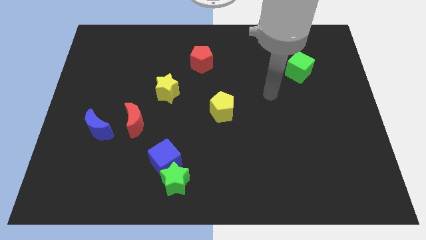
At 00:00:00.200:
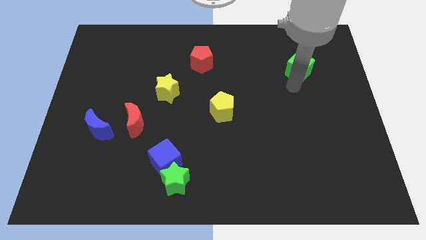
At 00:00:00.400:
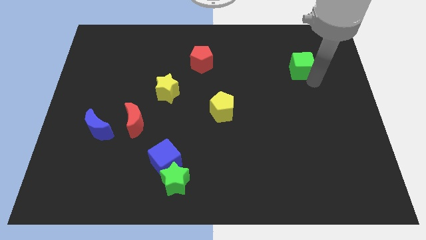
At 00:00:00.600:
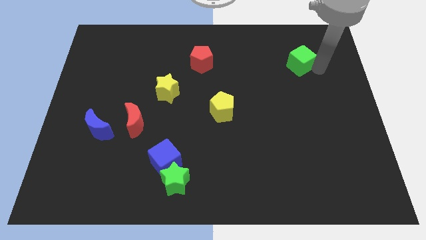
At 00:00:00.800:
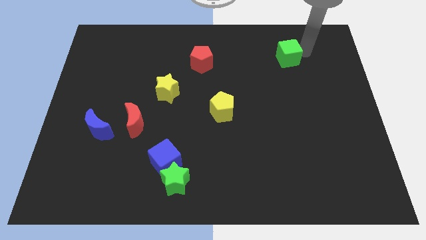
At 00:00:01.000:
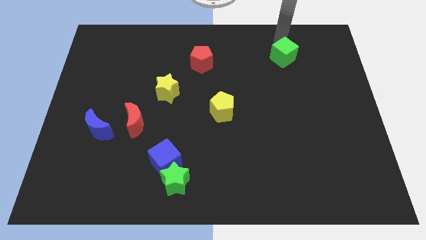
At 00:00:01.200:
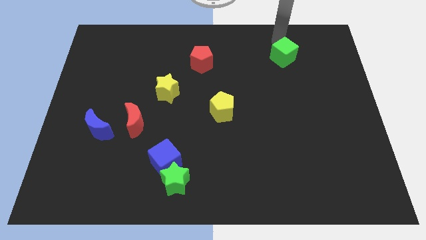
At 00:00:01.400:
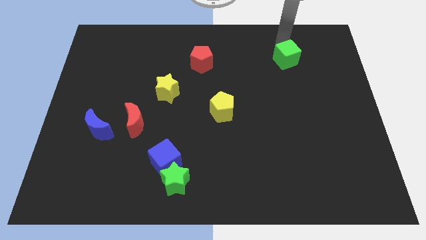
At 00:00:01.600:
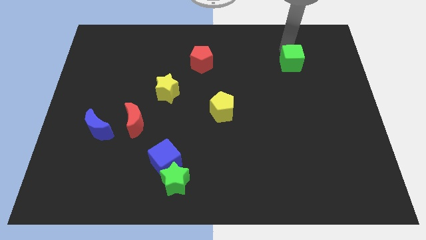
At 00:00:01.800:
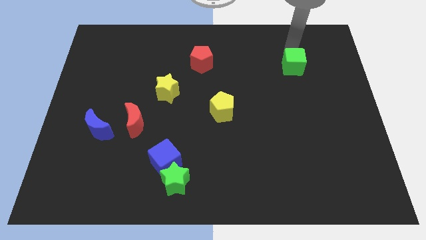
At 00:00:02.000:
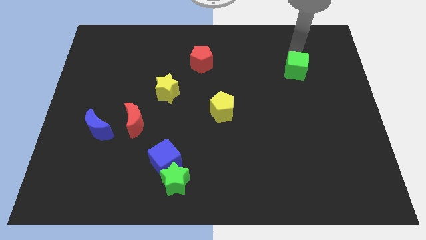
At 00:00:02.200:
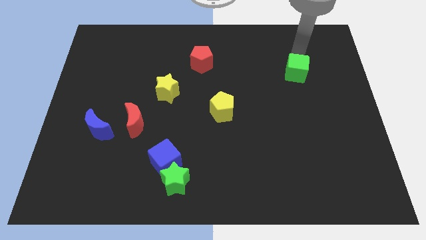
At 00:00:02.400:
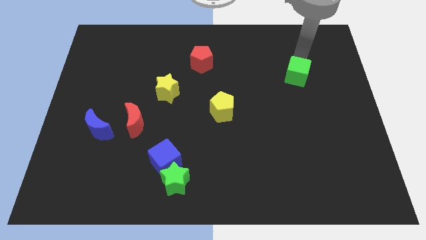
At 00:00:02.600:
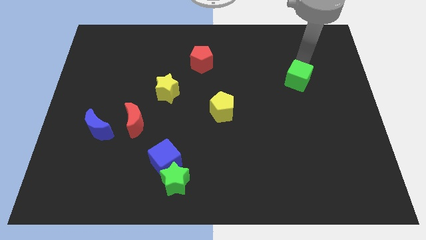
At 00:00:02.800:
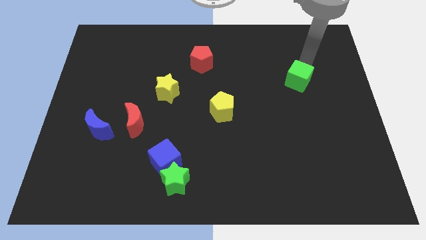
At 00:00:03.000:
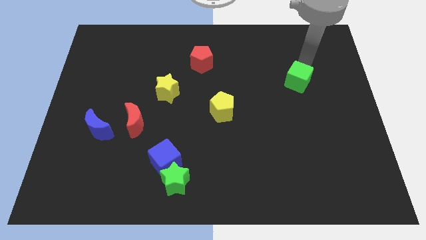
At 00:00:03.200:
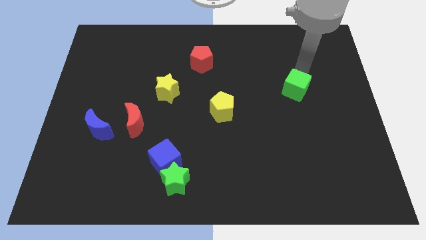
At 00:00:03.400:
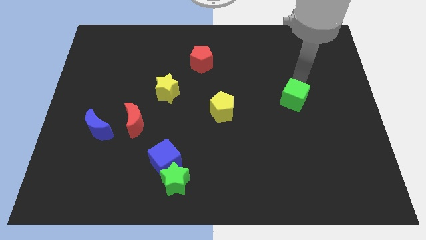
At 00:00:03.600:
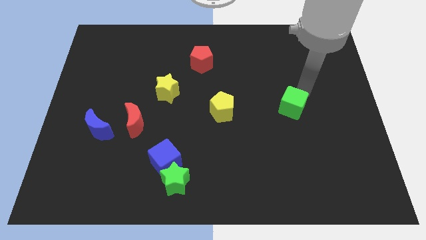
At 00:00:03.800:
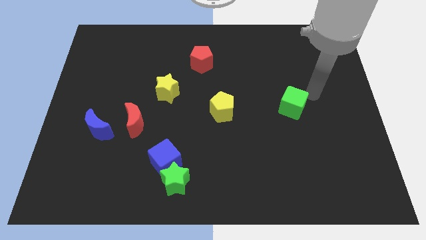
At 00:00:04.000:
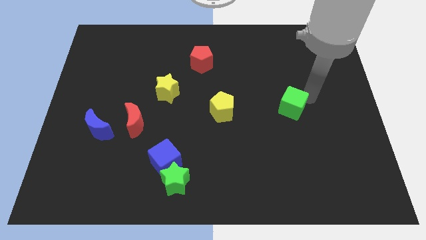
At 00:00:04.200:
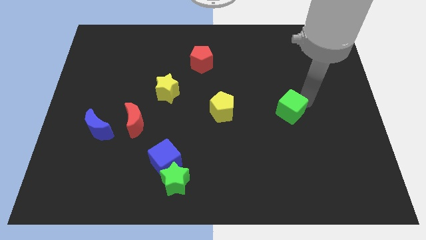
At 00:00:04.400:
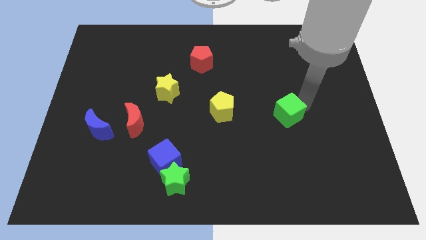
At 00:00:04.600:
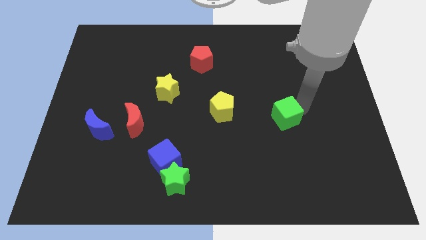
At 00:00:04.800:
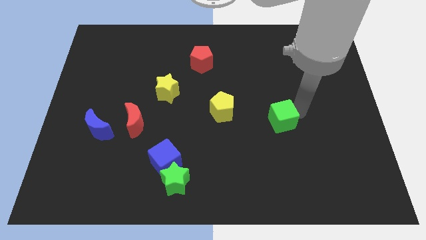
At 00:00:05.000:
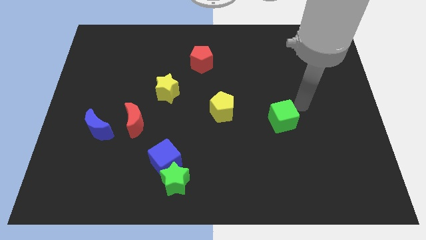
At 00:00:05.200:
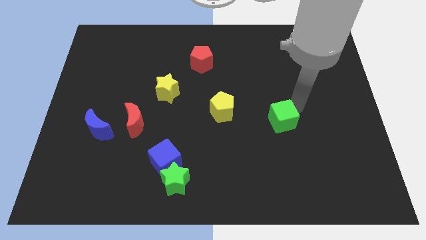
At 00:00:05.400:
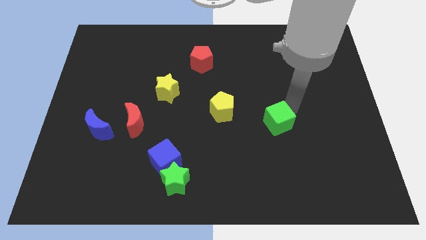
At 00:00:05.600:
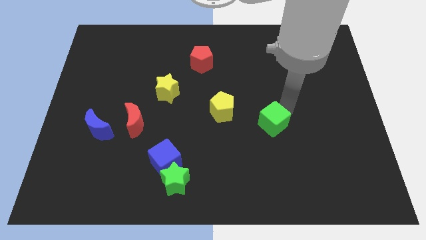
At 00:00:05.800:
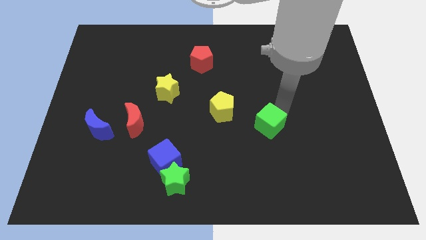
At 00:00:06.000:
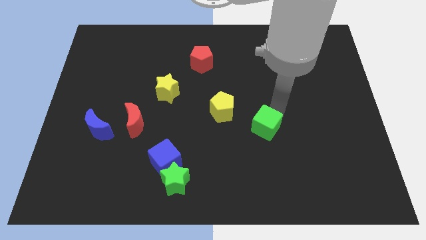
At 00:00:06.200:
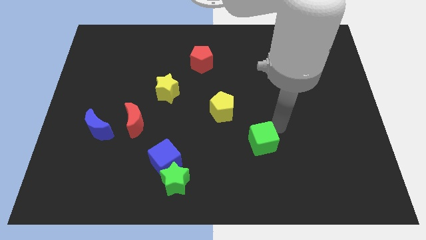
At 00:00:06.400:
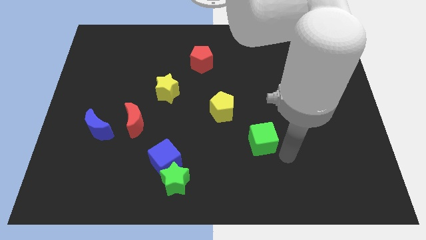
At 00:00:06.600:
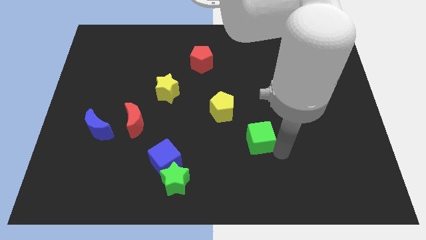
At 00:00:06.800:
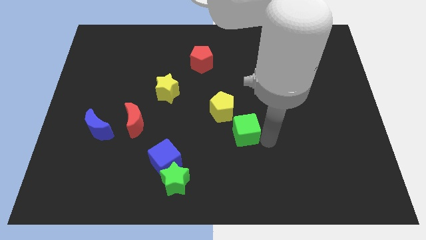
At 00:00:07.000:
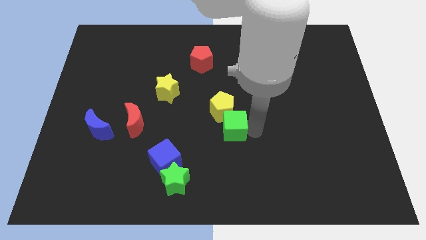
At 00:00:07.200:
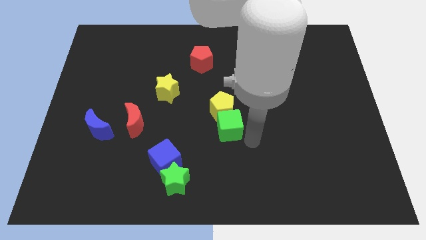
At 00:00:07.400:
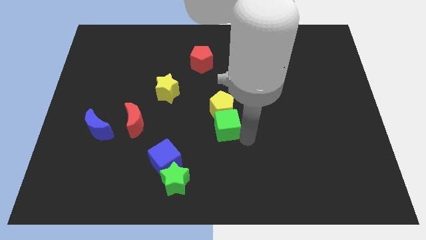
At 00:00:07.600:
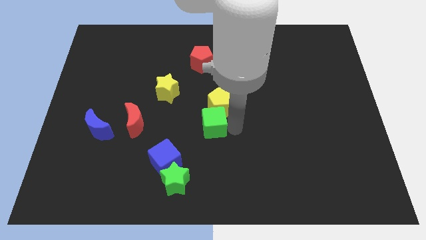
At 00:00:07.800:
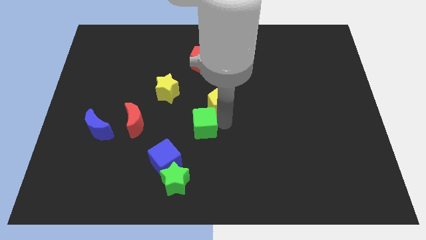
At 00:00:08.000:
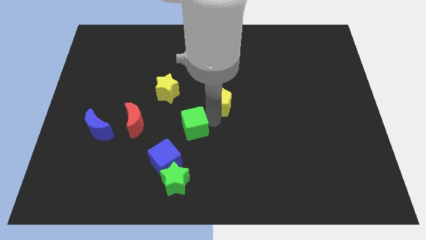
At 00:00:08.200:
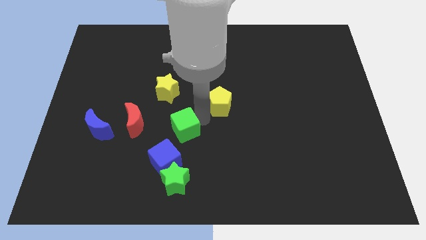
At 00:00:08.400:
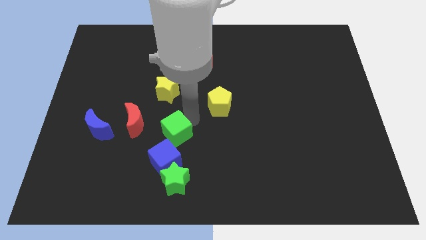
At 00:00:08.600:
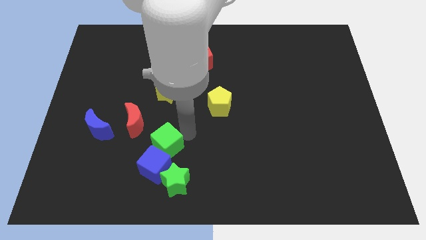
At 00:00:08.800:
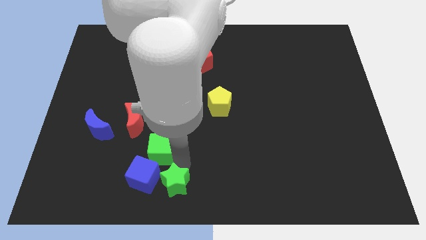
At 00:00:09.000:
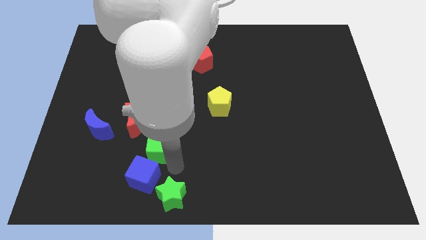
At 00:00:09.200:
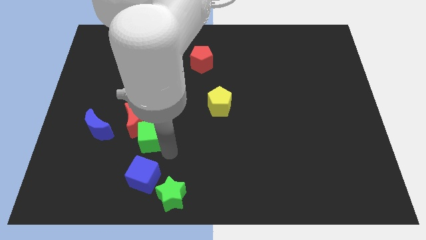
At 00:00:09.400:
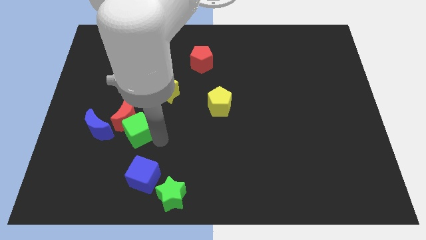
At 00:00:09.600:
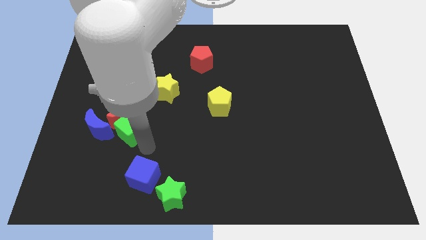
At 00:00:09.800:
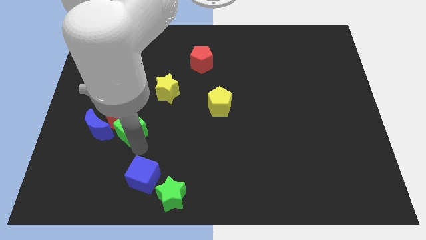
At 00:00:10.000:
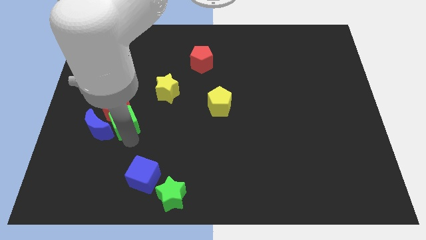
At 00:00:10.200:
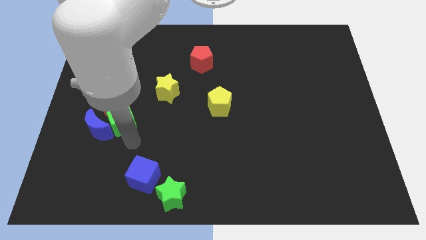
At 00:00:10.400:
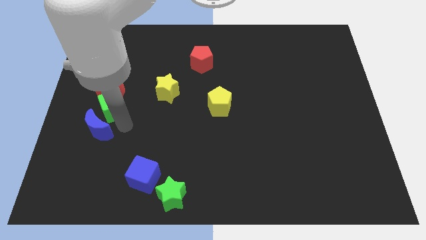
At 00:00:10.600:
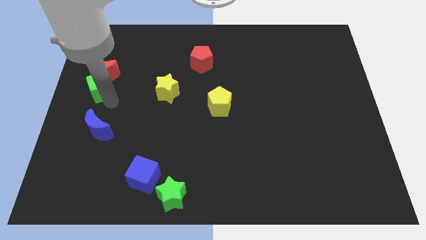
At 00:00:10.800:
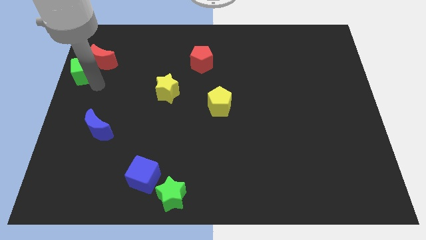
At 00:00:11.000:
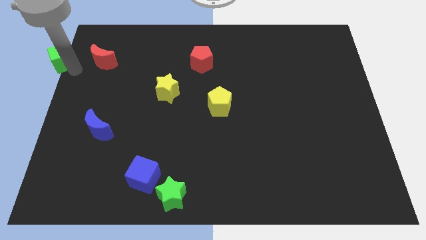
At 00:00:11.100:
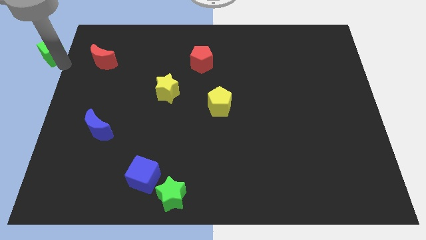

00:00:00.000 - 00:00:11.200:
put the green cube to the upper left corner

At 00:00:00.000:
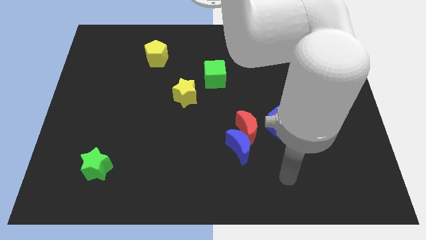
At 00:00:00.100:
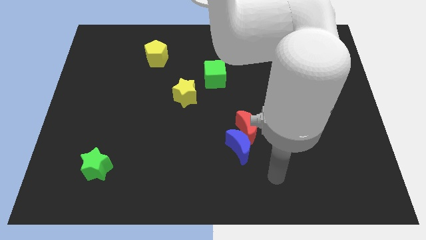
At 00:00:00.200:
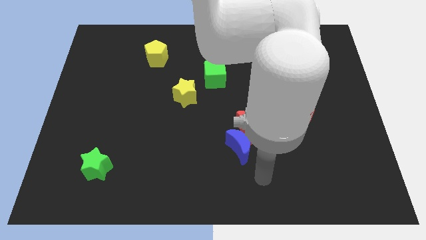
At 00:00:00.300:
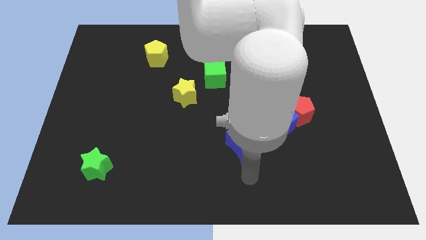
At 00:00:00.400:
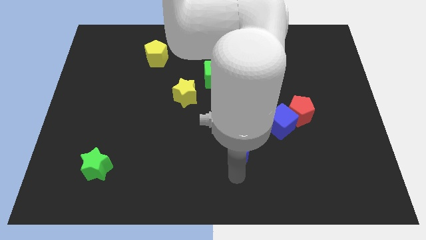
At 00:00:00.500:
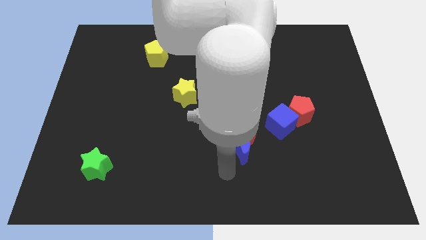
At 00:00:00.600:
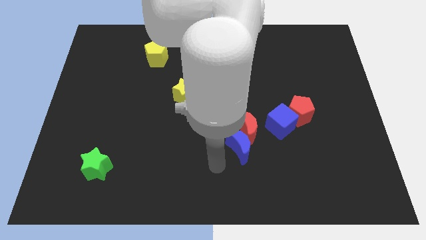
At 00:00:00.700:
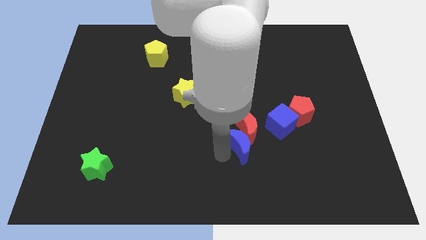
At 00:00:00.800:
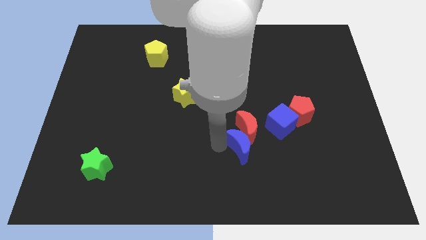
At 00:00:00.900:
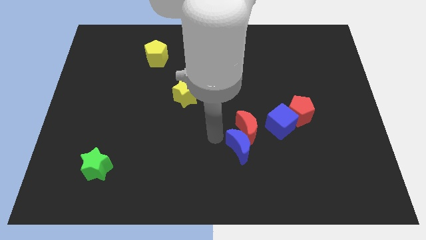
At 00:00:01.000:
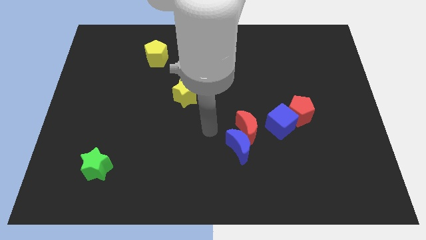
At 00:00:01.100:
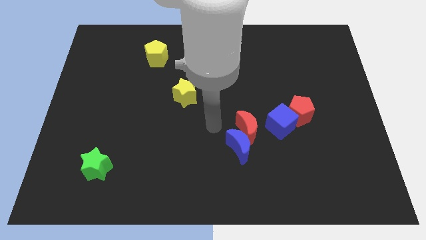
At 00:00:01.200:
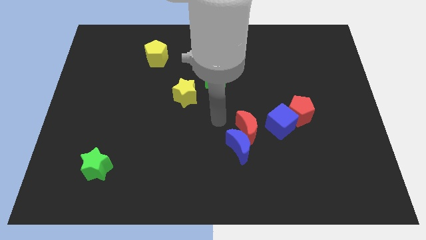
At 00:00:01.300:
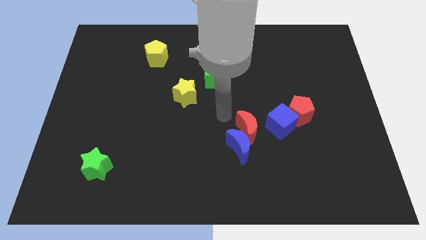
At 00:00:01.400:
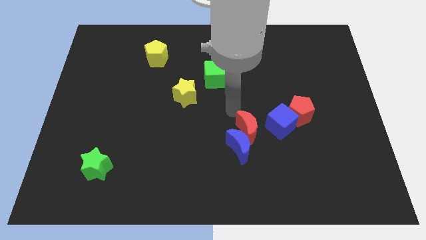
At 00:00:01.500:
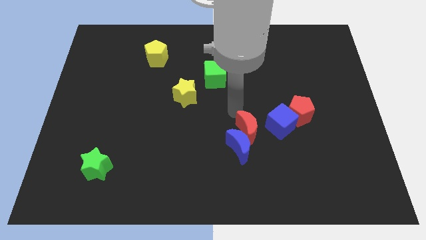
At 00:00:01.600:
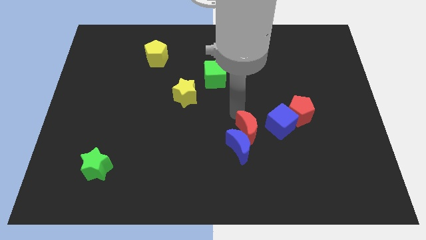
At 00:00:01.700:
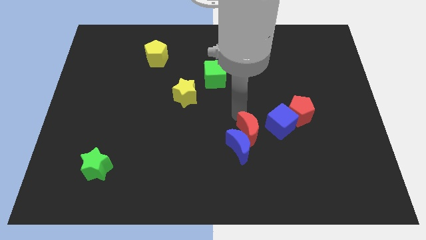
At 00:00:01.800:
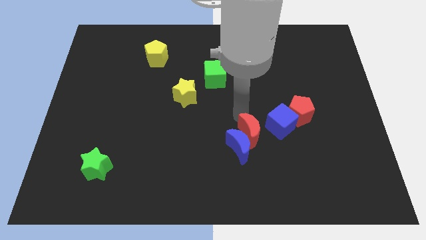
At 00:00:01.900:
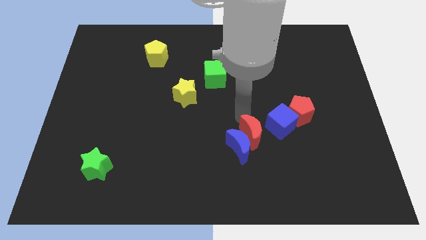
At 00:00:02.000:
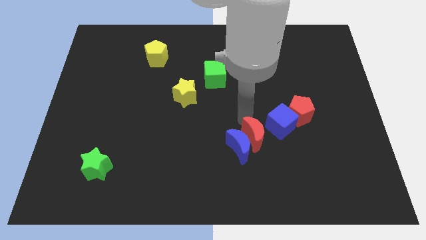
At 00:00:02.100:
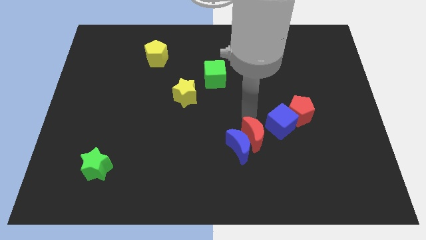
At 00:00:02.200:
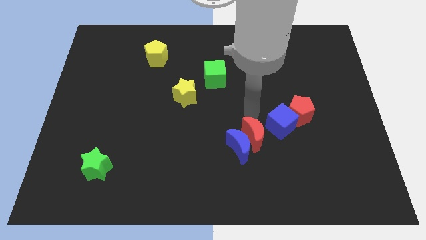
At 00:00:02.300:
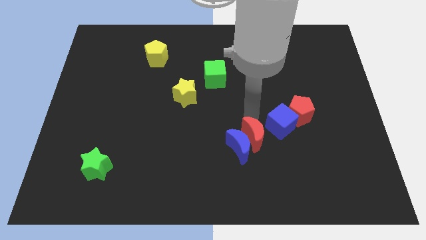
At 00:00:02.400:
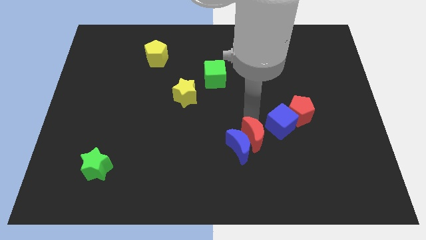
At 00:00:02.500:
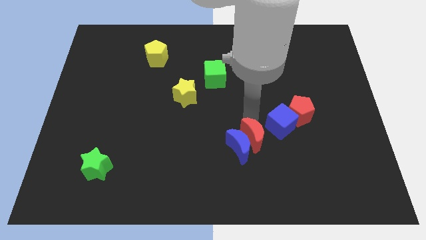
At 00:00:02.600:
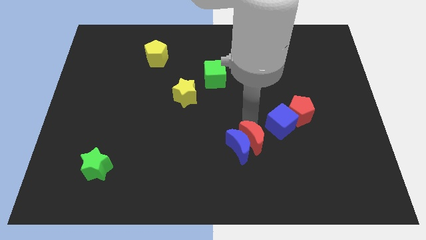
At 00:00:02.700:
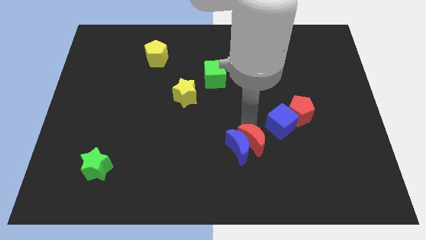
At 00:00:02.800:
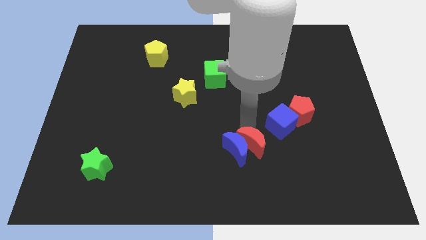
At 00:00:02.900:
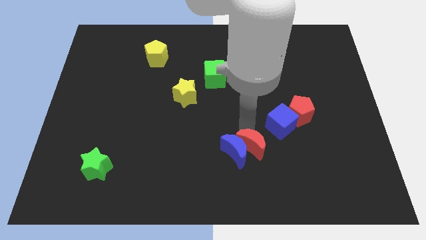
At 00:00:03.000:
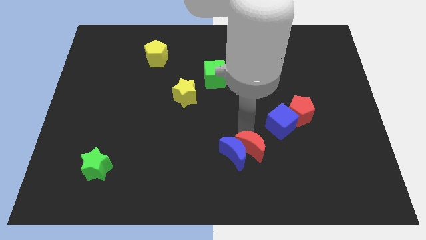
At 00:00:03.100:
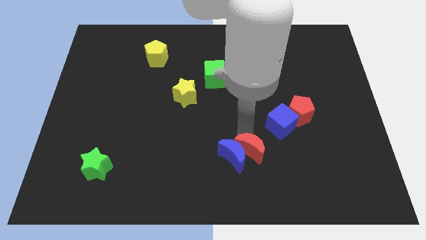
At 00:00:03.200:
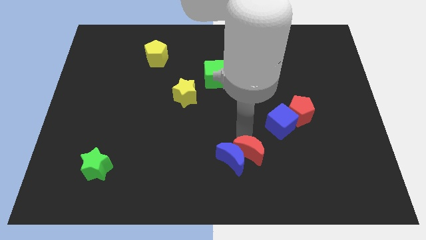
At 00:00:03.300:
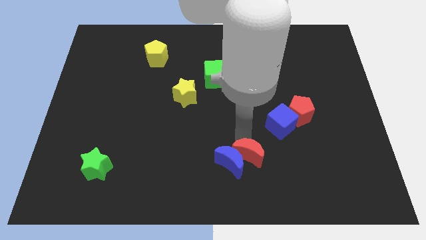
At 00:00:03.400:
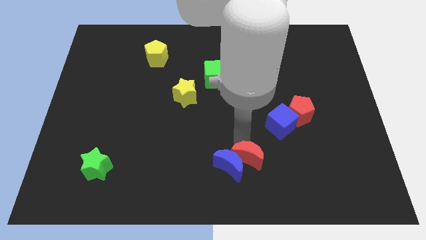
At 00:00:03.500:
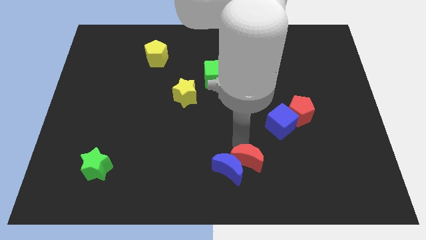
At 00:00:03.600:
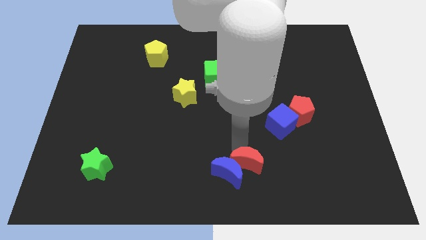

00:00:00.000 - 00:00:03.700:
slide the red moon to the bottom
